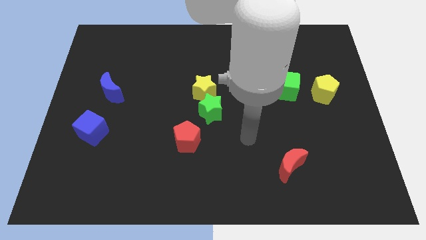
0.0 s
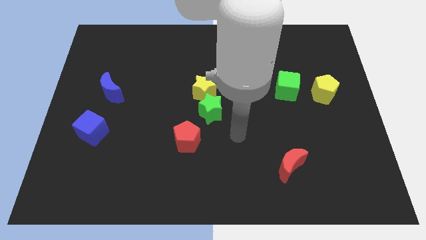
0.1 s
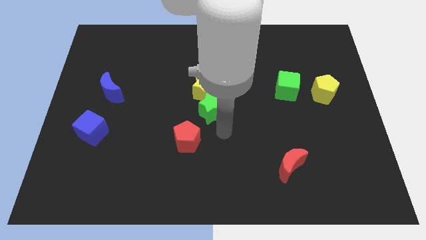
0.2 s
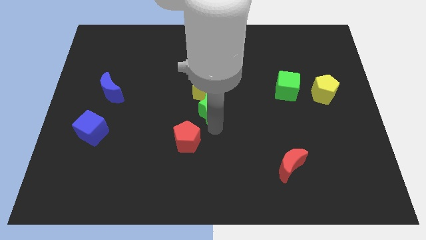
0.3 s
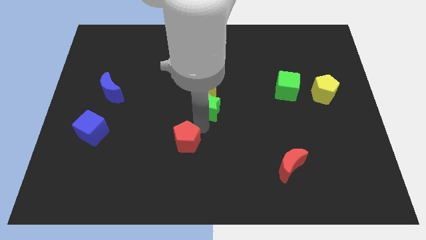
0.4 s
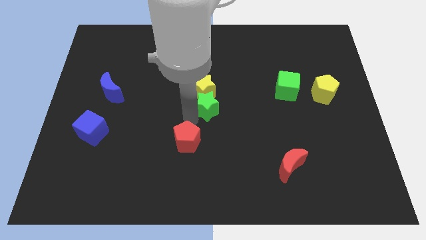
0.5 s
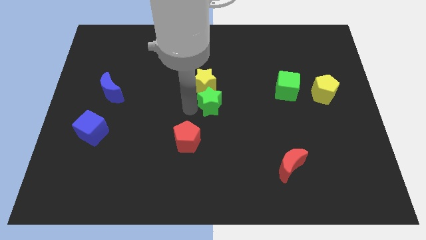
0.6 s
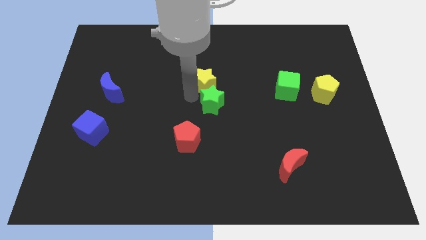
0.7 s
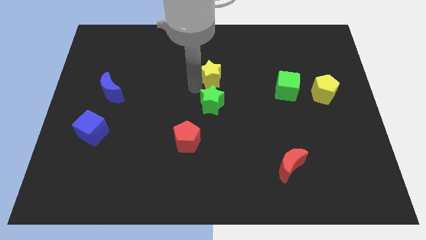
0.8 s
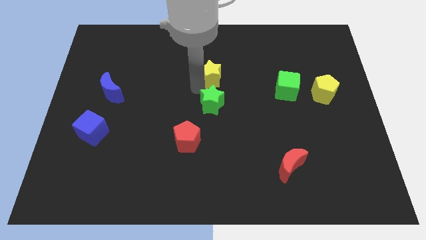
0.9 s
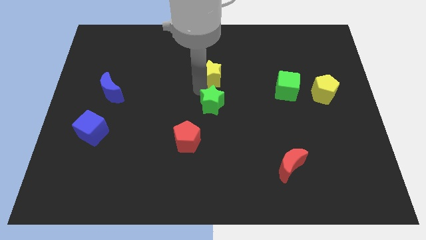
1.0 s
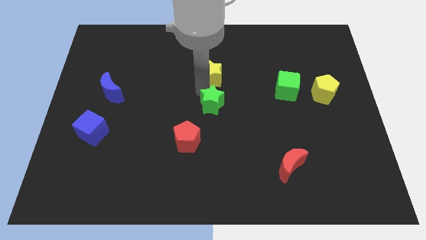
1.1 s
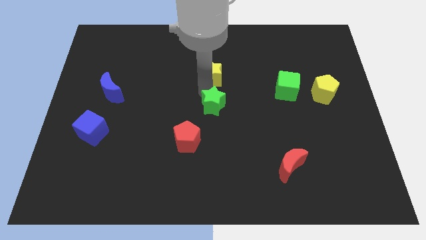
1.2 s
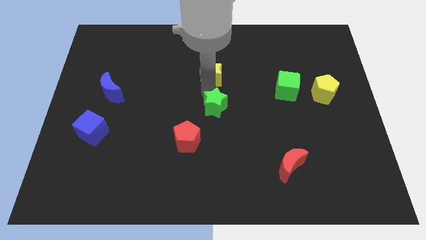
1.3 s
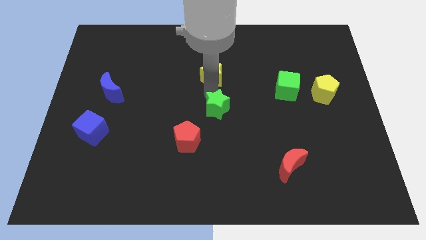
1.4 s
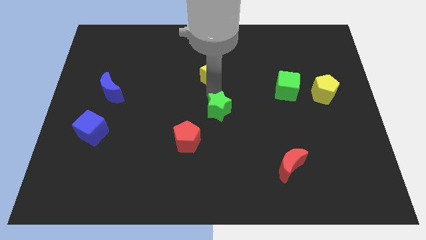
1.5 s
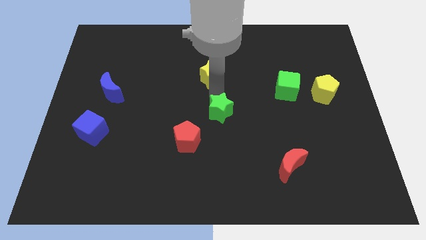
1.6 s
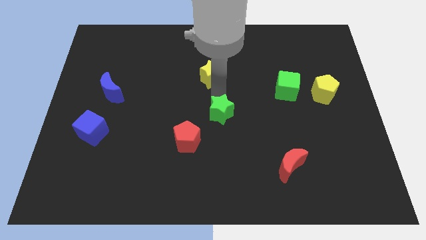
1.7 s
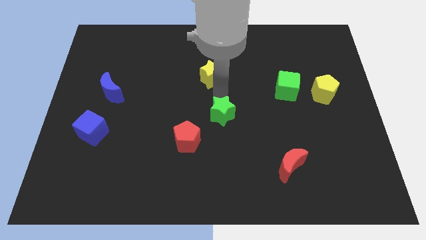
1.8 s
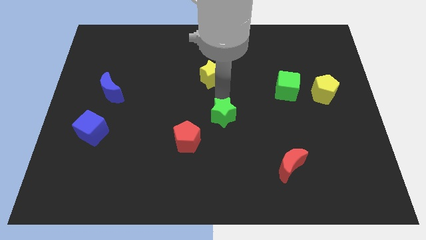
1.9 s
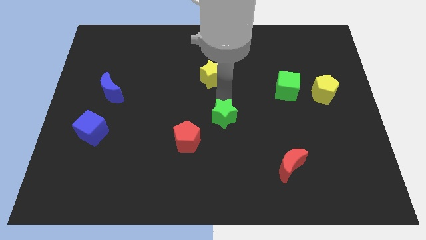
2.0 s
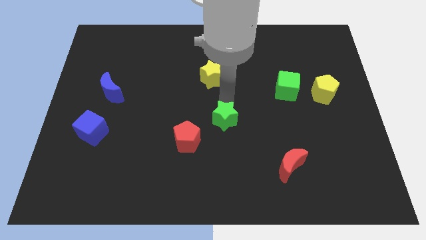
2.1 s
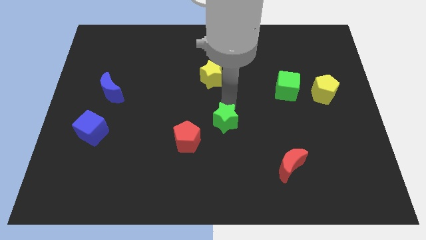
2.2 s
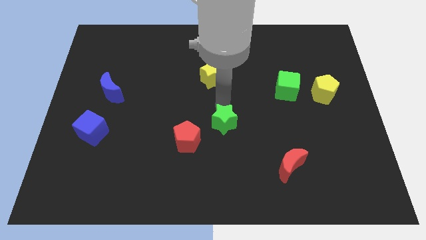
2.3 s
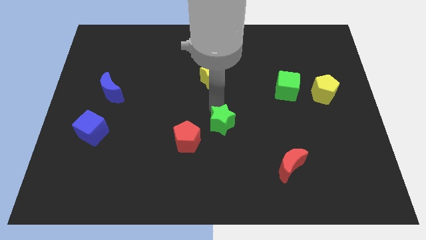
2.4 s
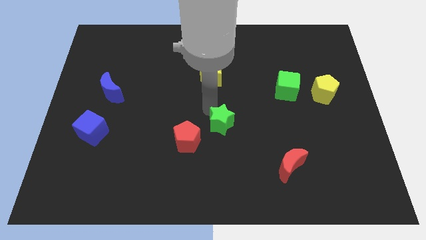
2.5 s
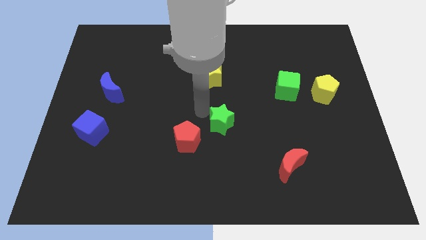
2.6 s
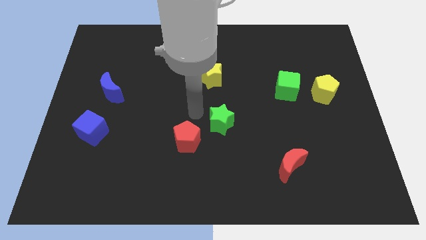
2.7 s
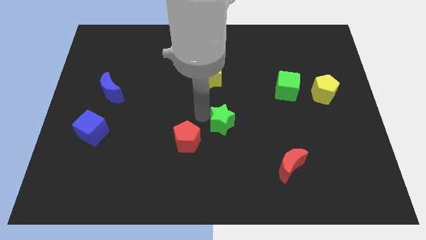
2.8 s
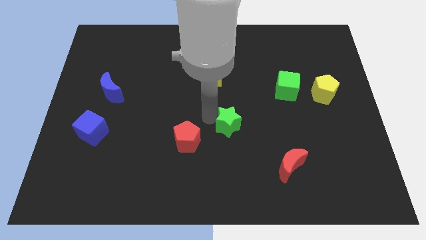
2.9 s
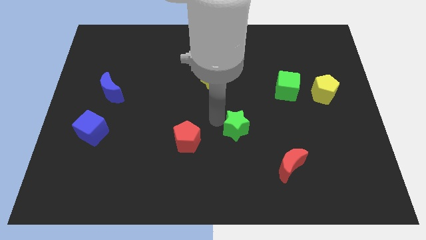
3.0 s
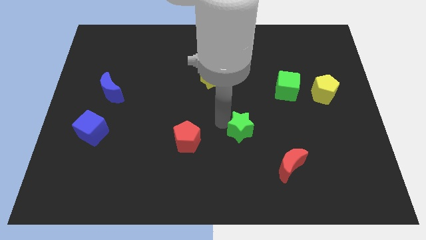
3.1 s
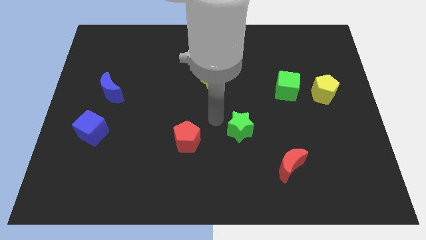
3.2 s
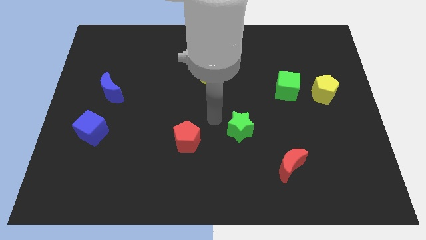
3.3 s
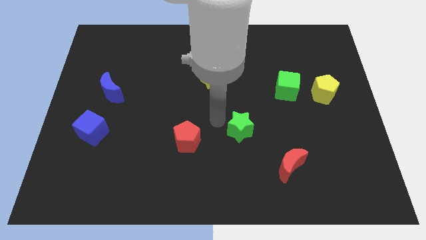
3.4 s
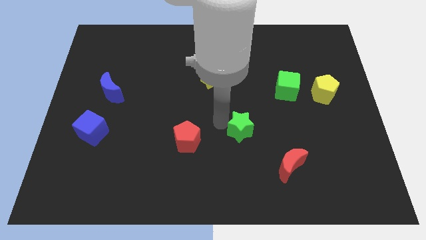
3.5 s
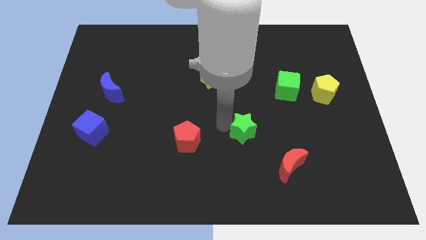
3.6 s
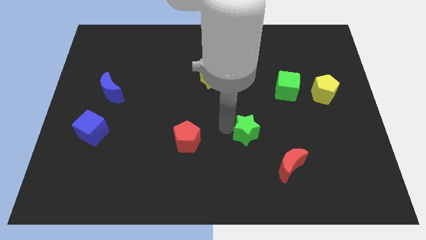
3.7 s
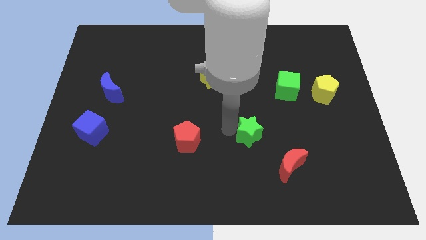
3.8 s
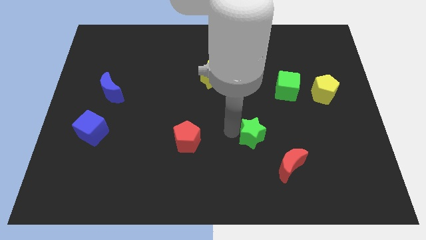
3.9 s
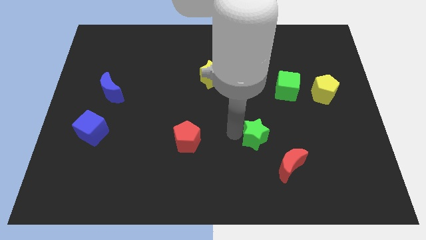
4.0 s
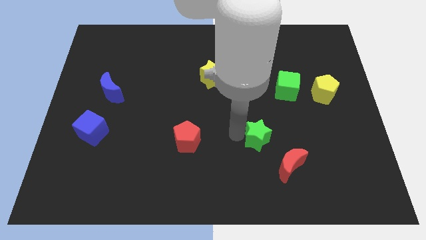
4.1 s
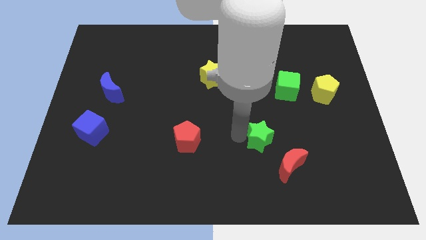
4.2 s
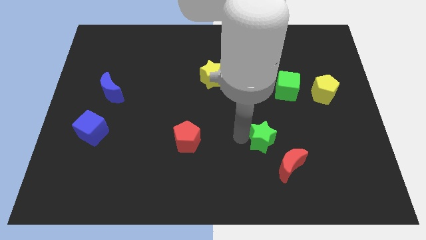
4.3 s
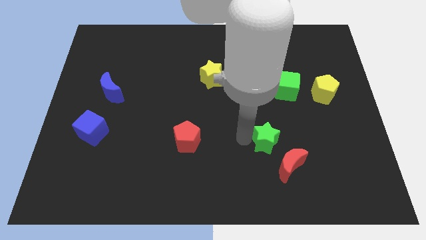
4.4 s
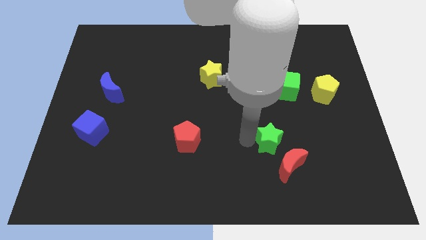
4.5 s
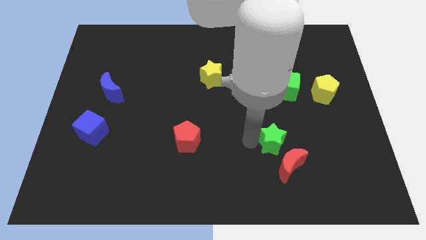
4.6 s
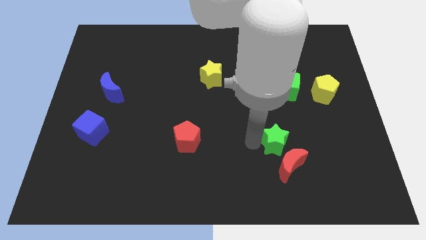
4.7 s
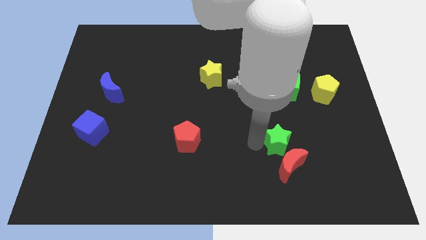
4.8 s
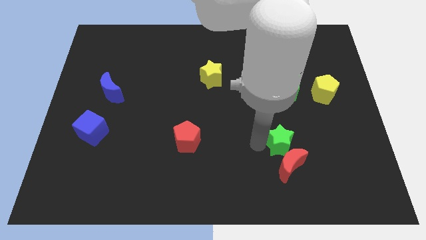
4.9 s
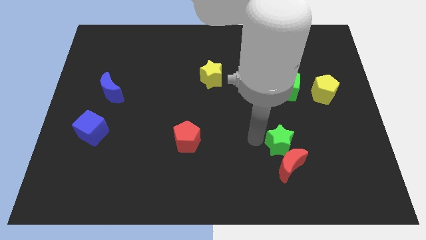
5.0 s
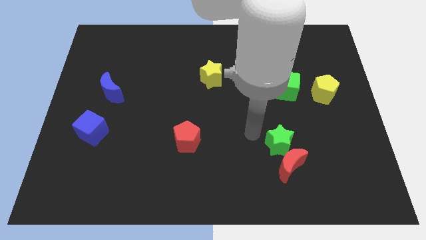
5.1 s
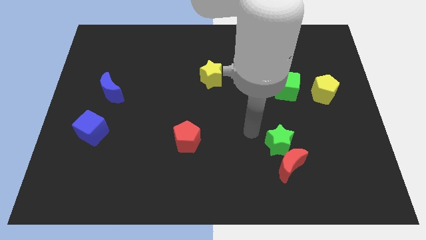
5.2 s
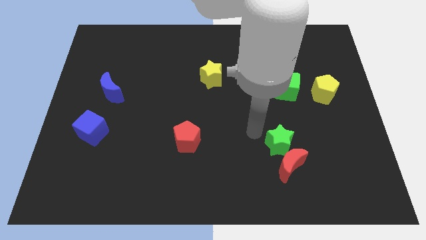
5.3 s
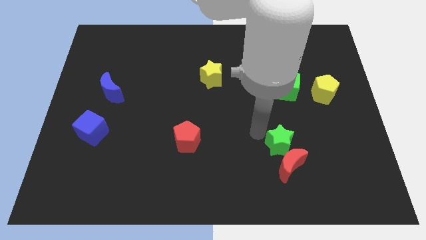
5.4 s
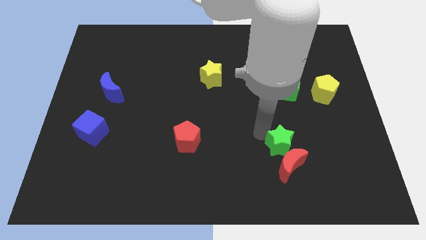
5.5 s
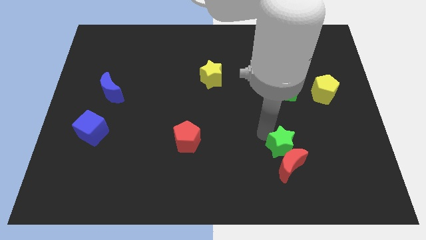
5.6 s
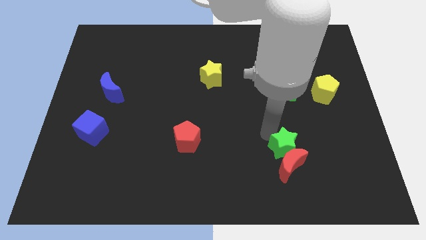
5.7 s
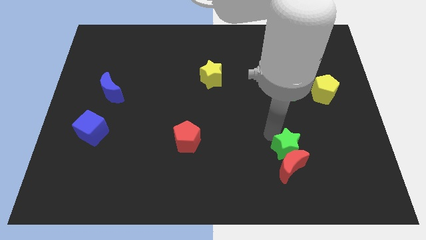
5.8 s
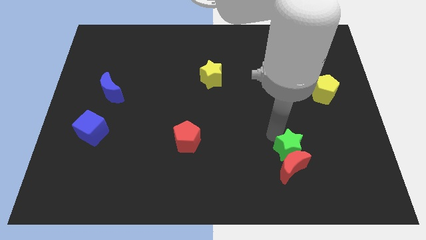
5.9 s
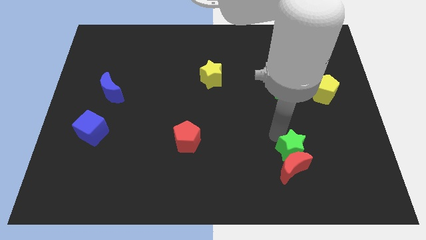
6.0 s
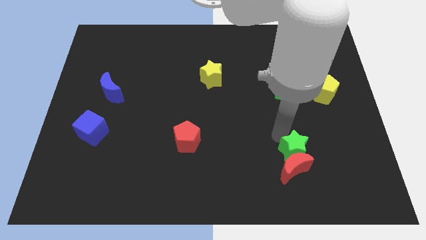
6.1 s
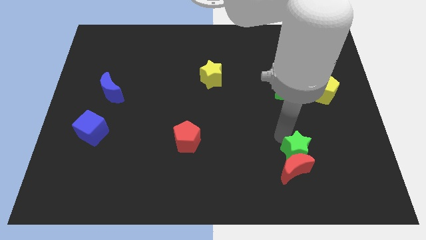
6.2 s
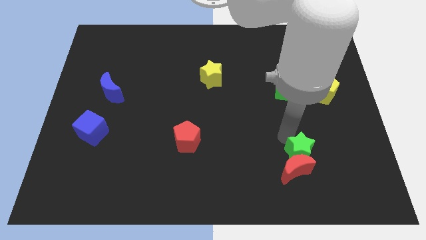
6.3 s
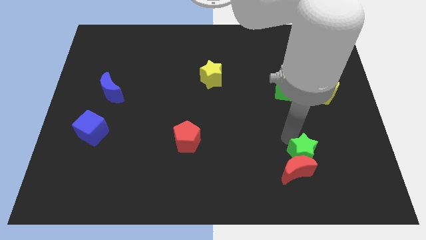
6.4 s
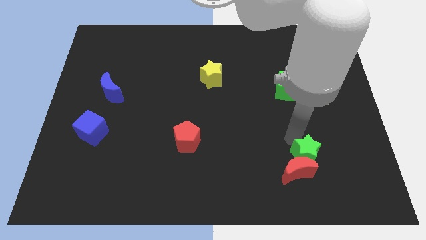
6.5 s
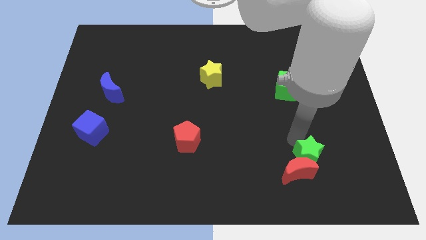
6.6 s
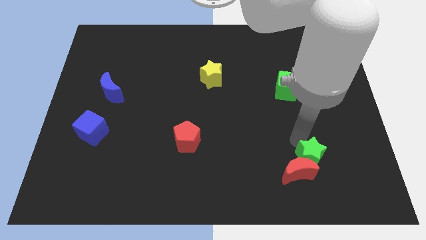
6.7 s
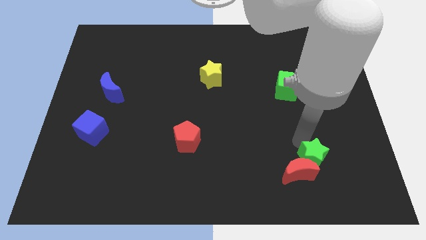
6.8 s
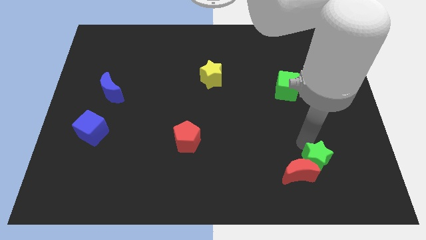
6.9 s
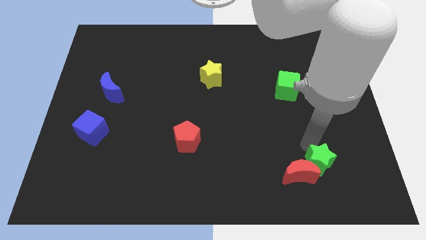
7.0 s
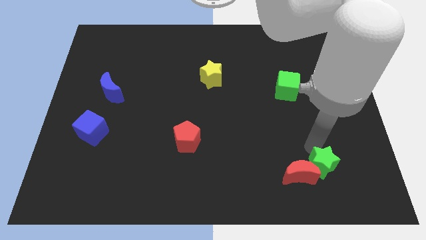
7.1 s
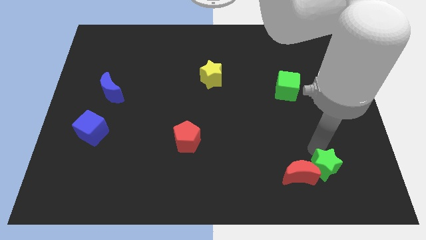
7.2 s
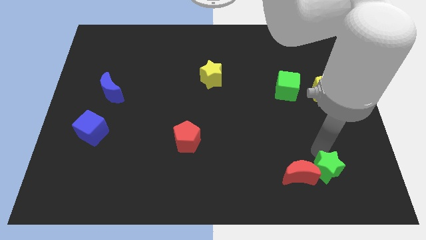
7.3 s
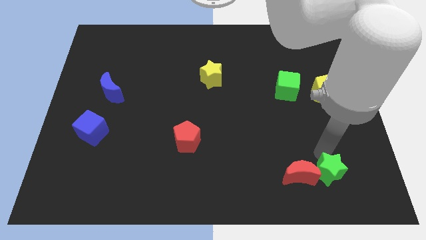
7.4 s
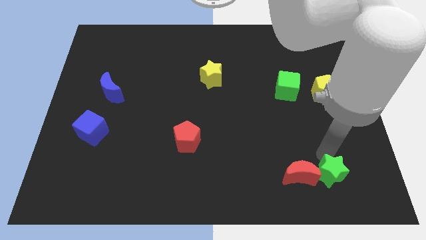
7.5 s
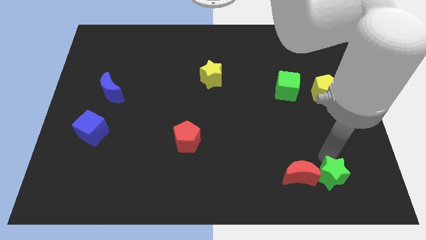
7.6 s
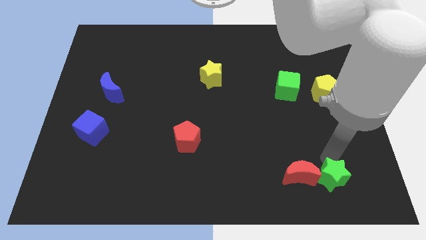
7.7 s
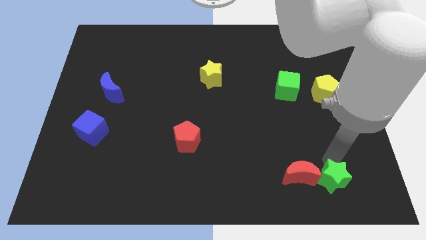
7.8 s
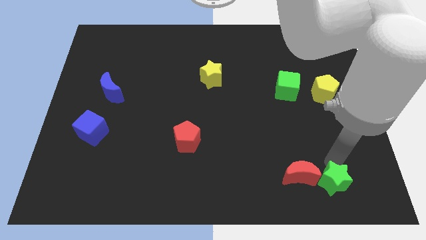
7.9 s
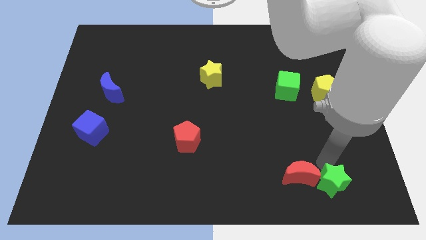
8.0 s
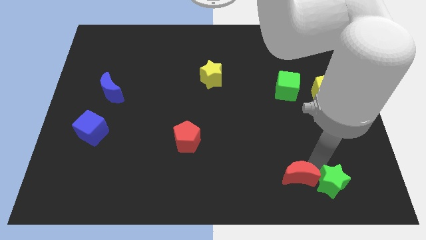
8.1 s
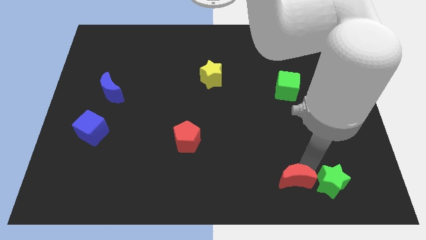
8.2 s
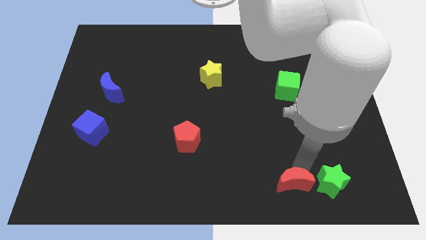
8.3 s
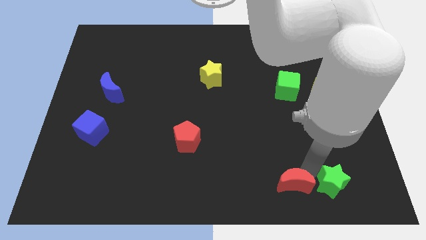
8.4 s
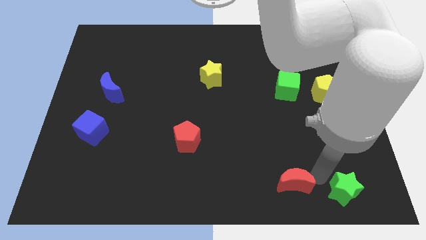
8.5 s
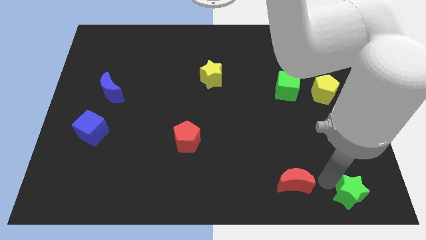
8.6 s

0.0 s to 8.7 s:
push the green star to the bottom right
